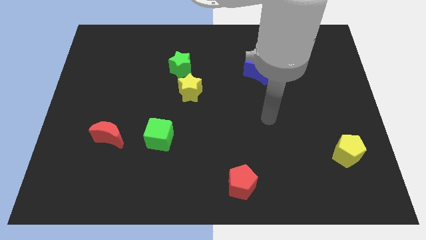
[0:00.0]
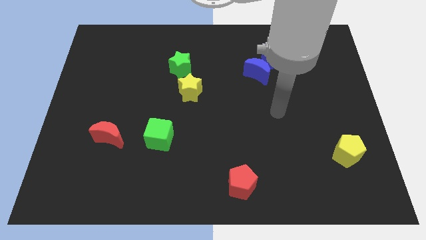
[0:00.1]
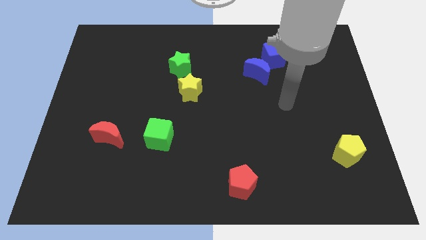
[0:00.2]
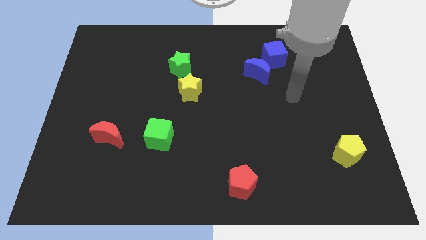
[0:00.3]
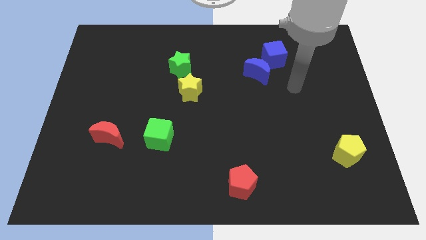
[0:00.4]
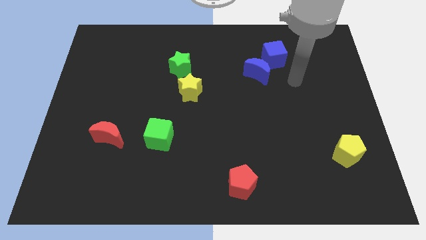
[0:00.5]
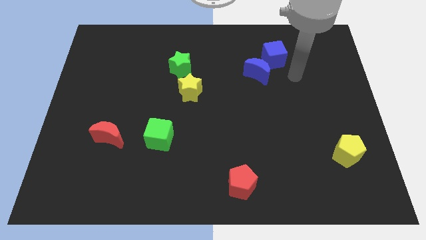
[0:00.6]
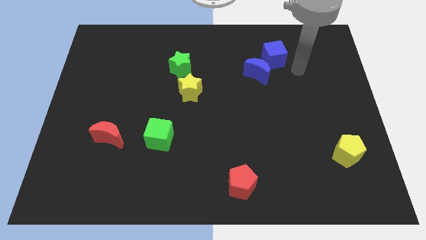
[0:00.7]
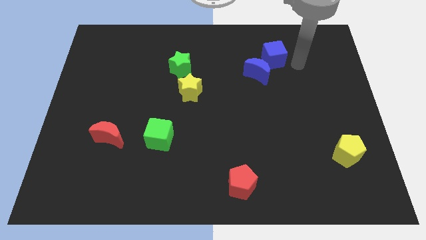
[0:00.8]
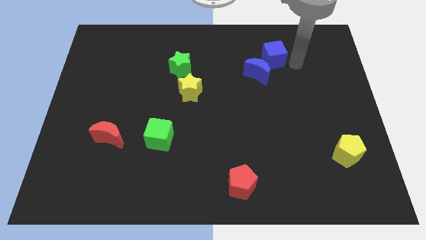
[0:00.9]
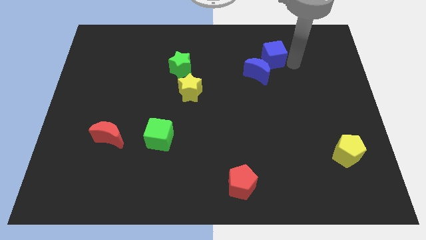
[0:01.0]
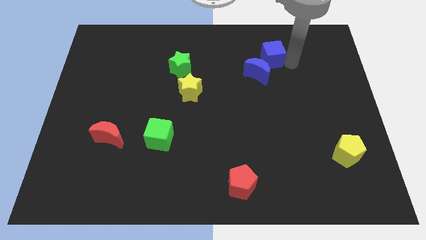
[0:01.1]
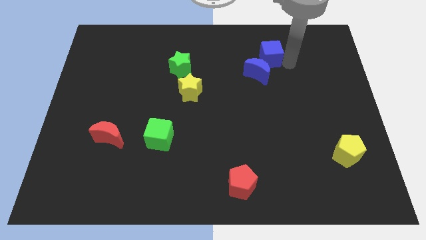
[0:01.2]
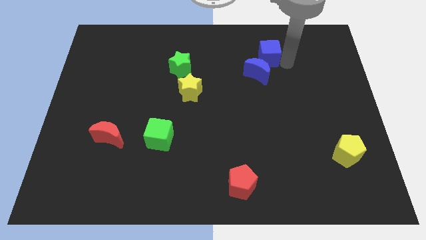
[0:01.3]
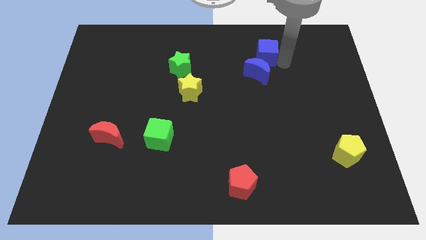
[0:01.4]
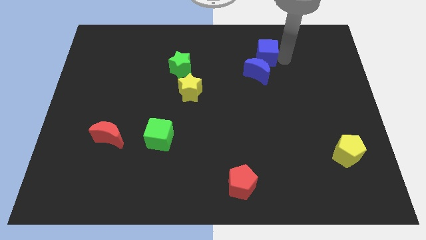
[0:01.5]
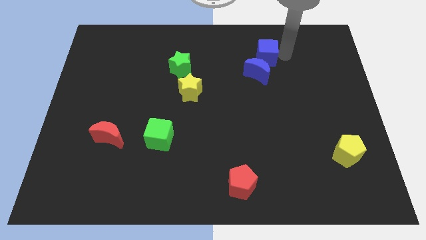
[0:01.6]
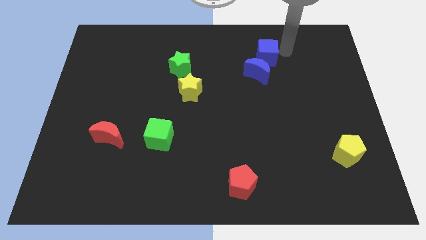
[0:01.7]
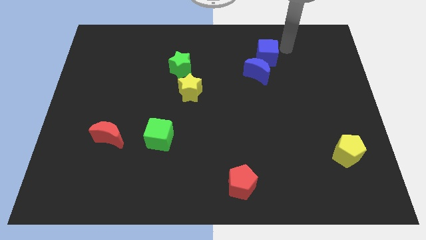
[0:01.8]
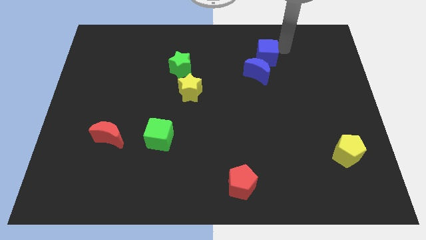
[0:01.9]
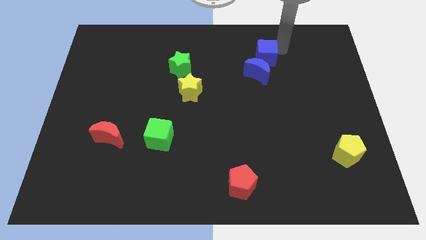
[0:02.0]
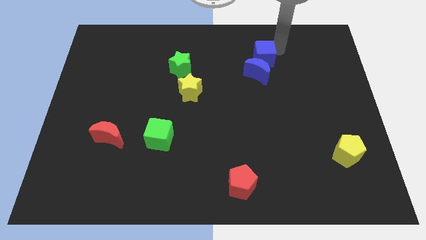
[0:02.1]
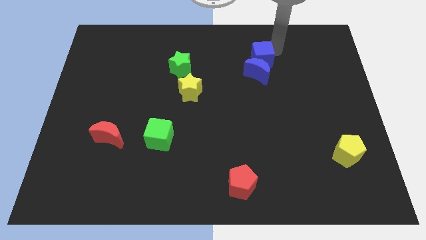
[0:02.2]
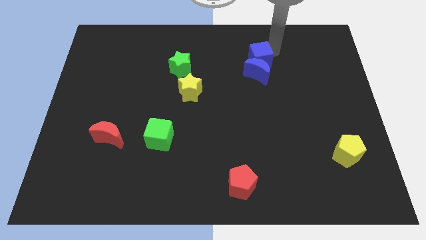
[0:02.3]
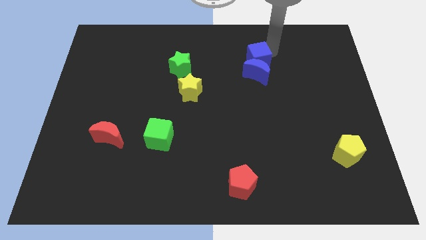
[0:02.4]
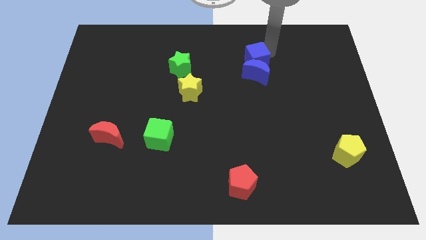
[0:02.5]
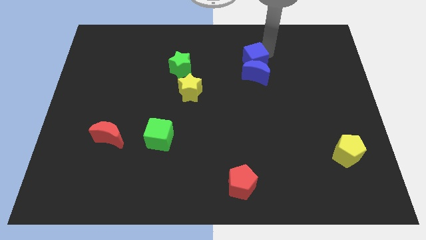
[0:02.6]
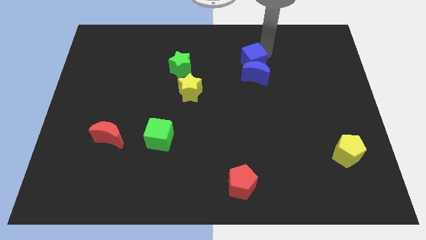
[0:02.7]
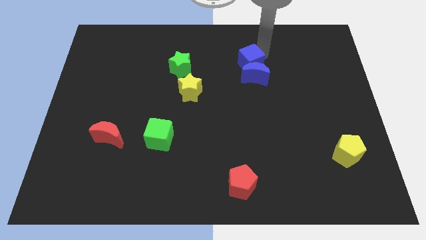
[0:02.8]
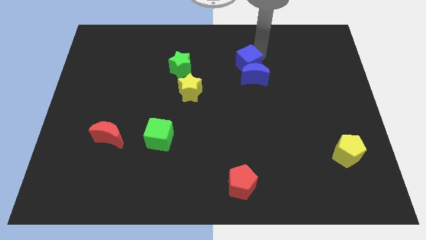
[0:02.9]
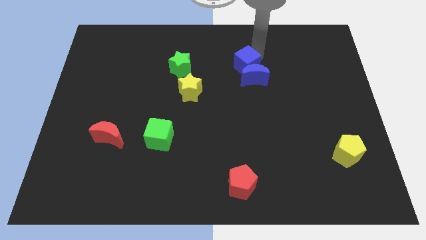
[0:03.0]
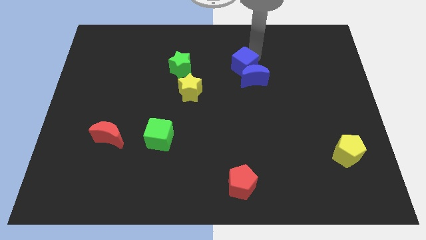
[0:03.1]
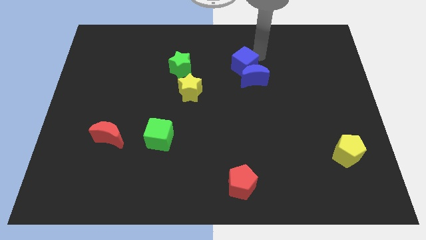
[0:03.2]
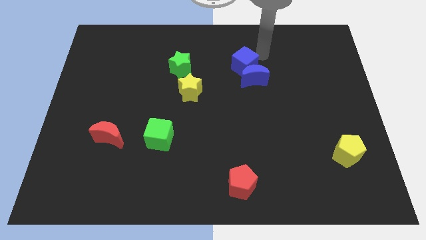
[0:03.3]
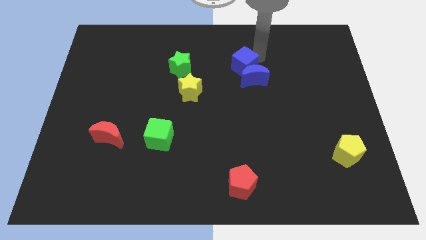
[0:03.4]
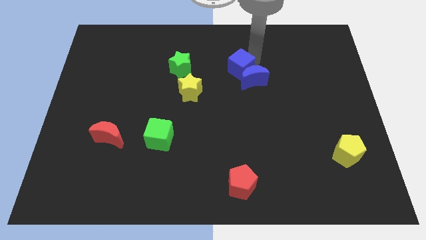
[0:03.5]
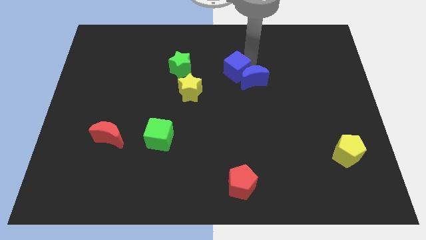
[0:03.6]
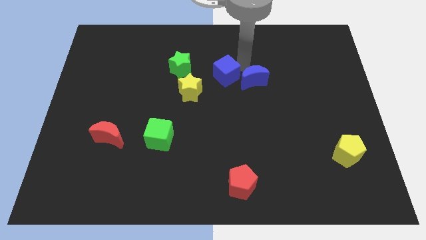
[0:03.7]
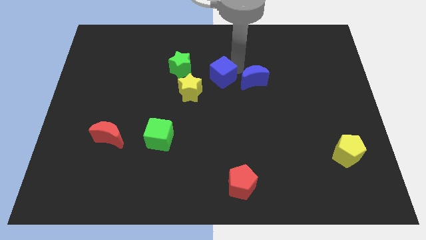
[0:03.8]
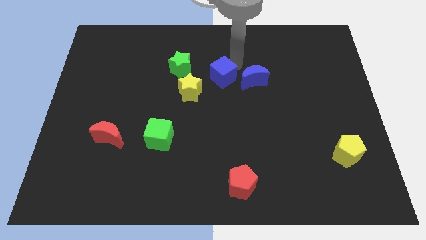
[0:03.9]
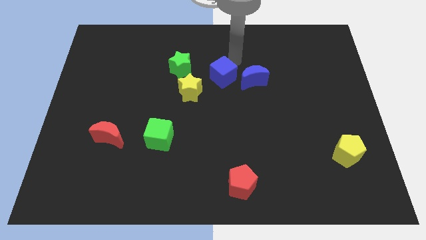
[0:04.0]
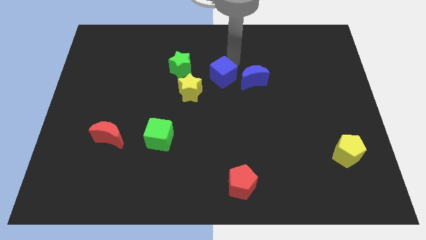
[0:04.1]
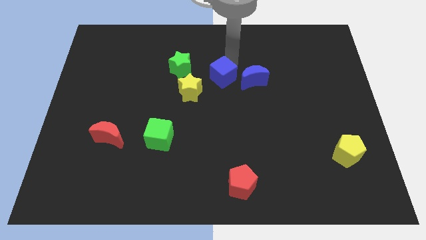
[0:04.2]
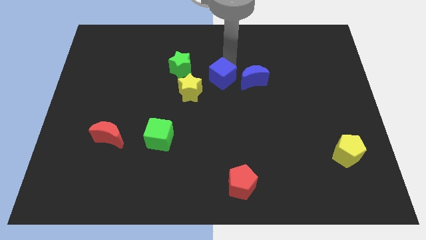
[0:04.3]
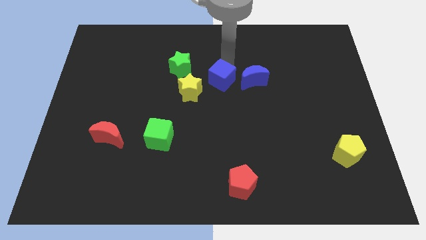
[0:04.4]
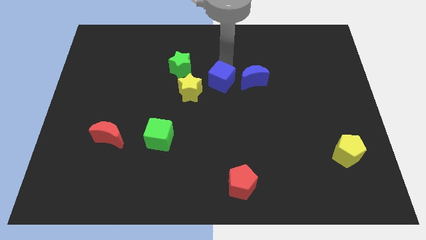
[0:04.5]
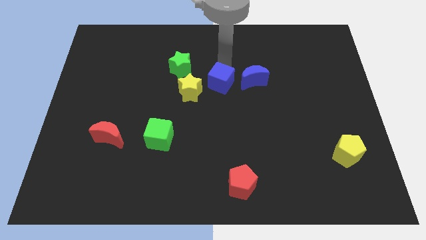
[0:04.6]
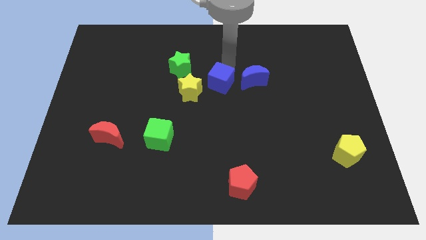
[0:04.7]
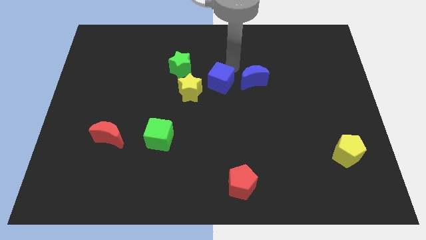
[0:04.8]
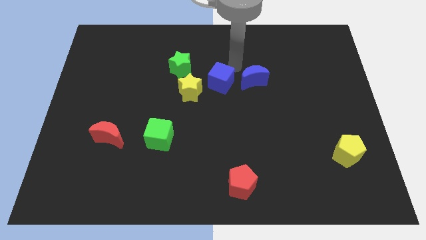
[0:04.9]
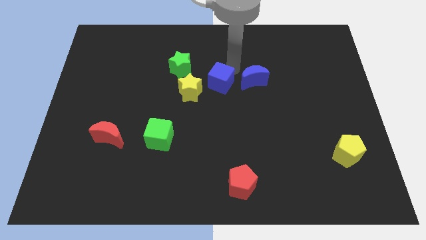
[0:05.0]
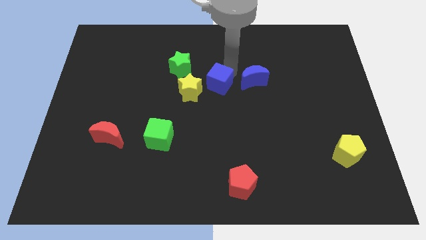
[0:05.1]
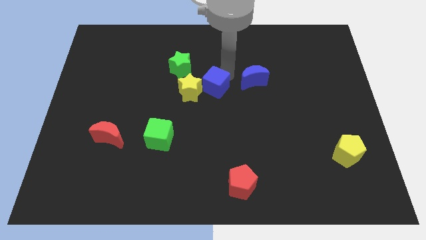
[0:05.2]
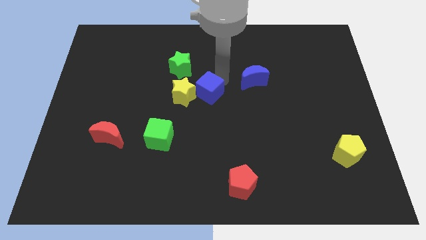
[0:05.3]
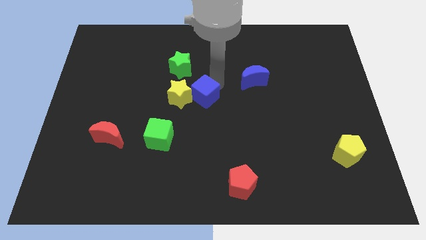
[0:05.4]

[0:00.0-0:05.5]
move the blue cube downwards and then left

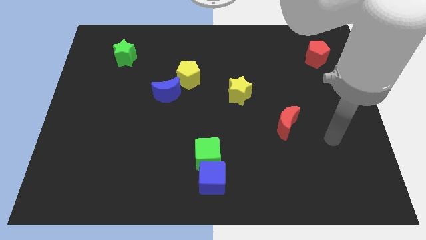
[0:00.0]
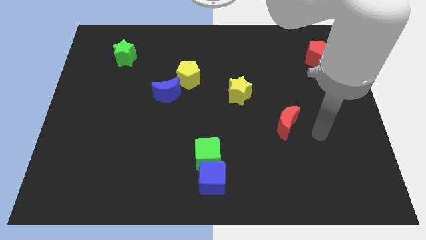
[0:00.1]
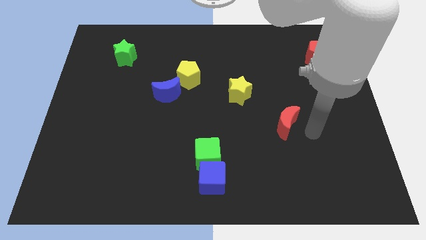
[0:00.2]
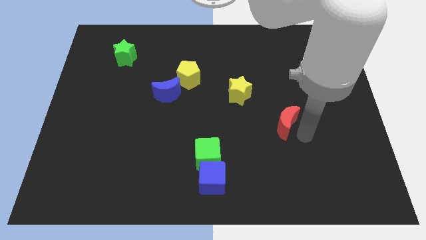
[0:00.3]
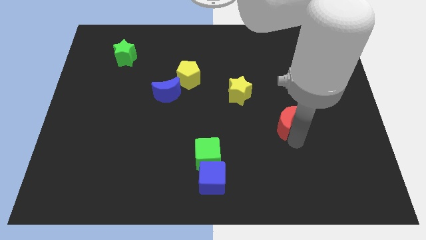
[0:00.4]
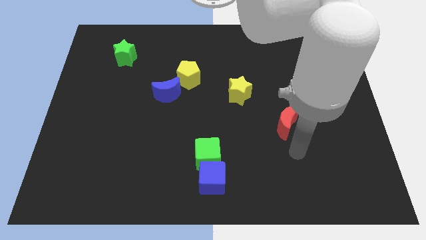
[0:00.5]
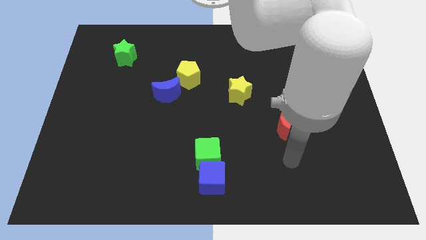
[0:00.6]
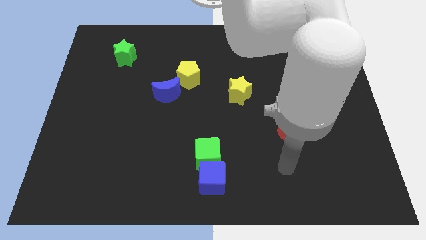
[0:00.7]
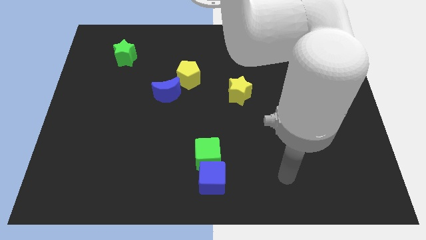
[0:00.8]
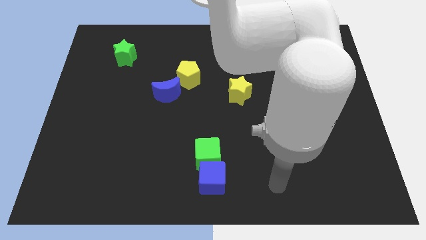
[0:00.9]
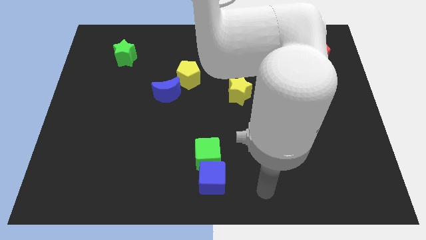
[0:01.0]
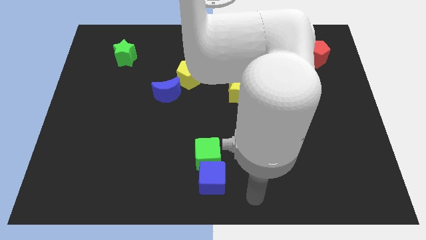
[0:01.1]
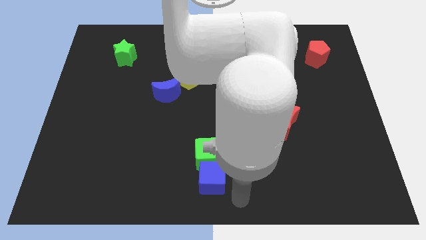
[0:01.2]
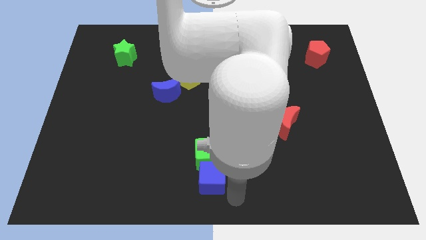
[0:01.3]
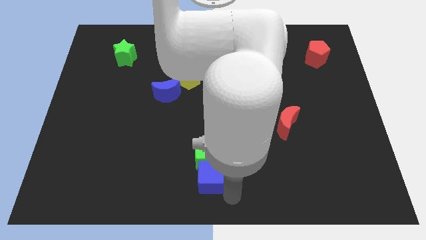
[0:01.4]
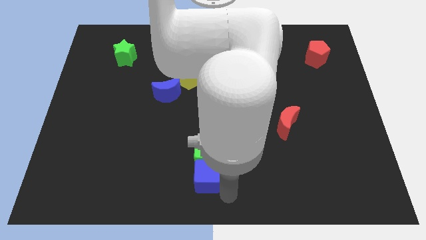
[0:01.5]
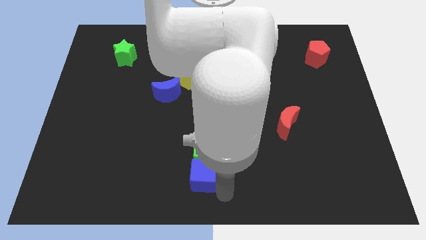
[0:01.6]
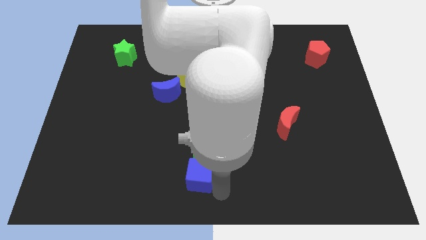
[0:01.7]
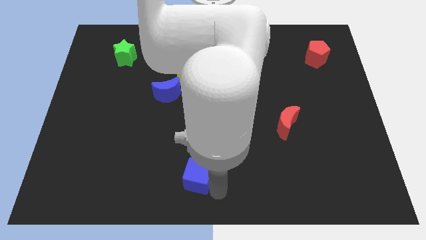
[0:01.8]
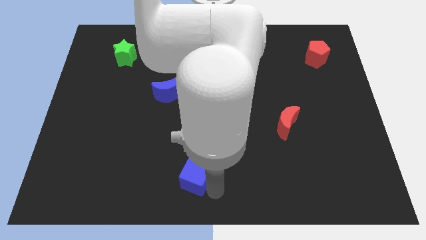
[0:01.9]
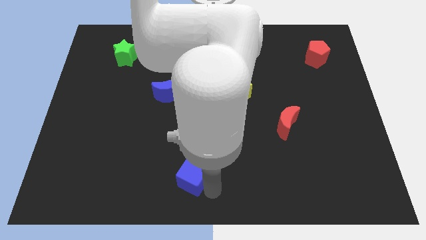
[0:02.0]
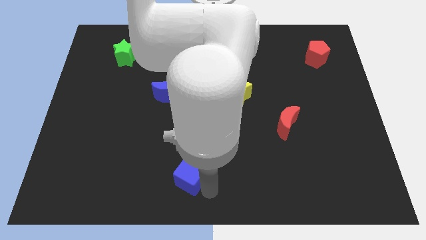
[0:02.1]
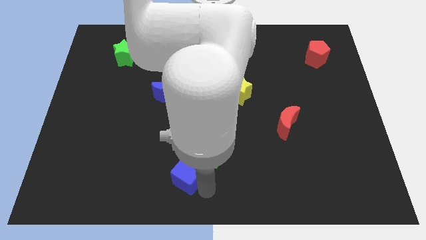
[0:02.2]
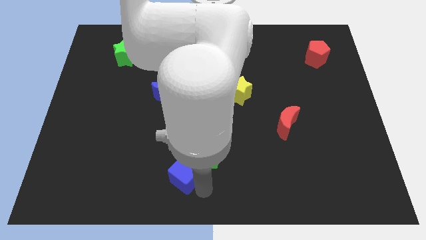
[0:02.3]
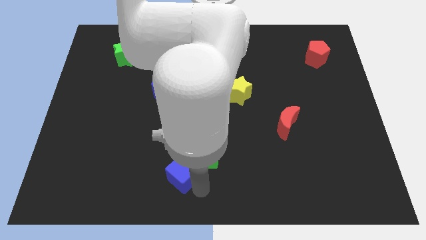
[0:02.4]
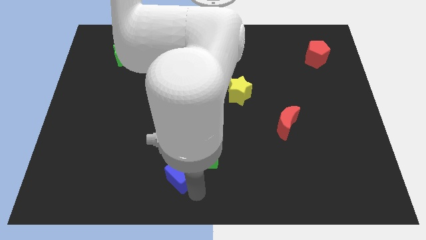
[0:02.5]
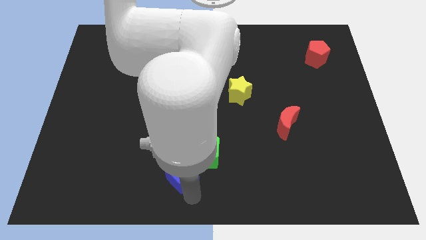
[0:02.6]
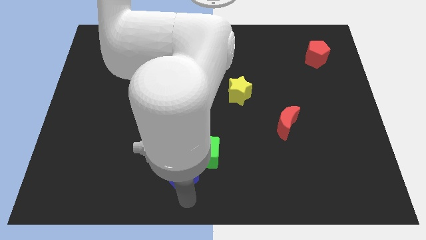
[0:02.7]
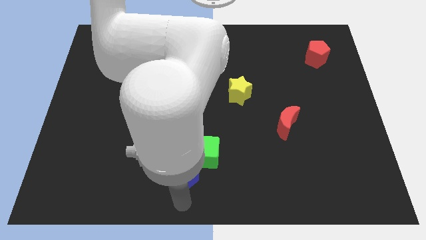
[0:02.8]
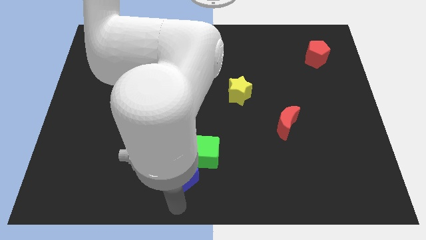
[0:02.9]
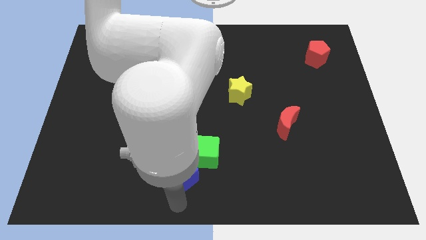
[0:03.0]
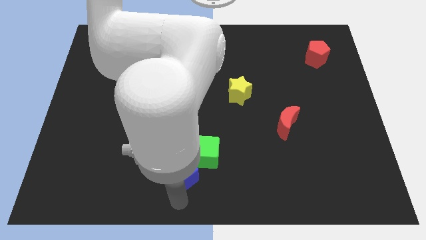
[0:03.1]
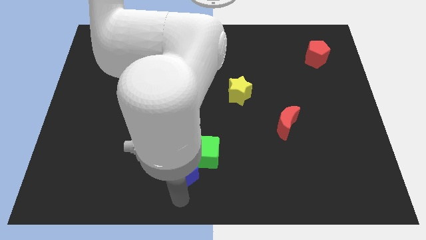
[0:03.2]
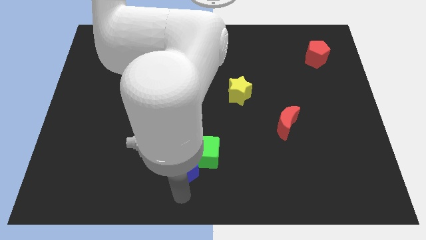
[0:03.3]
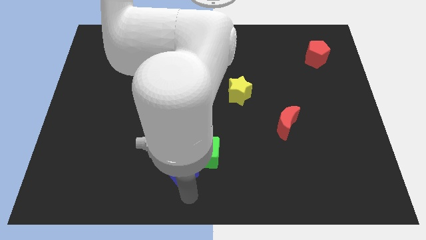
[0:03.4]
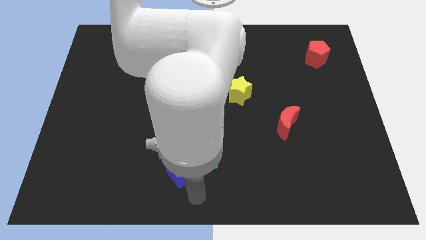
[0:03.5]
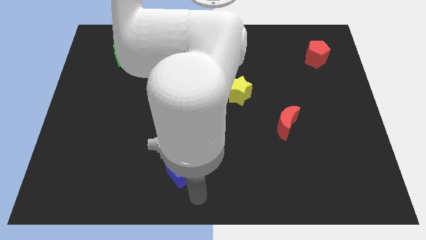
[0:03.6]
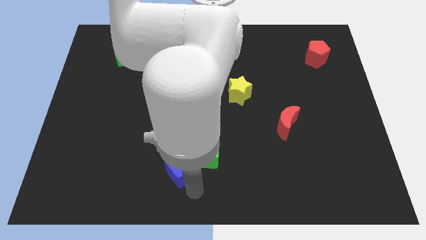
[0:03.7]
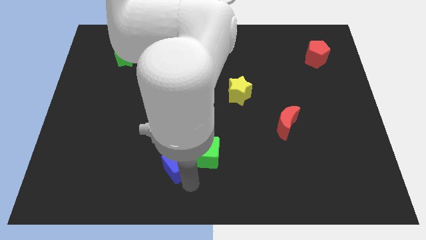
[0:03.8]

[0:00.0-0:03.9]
push the blue cube upwards and then left slightly
